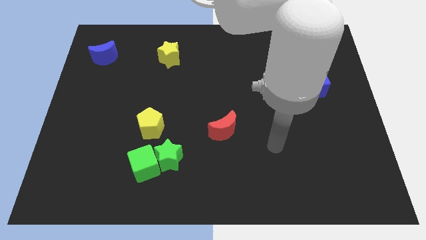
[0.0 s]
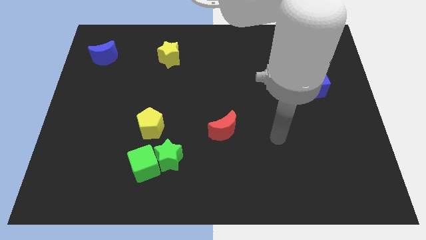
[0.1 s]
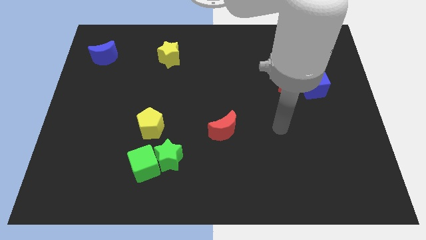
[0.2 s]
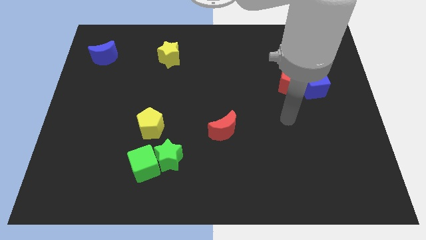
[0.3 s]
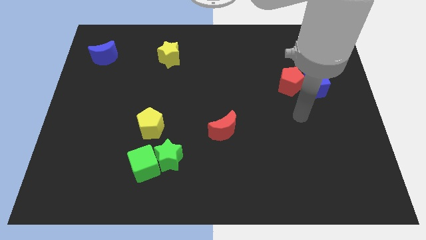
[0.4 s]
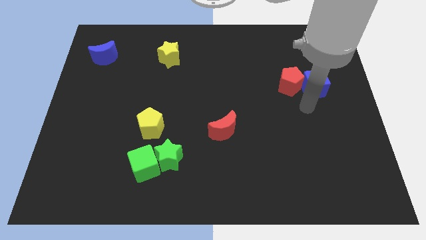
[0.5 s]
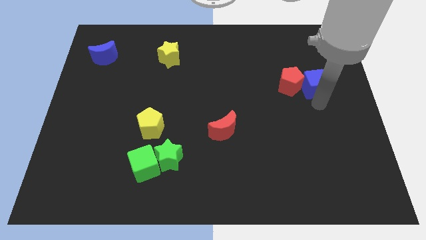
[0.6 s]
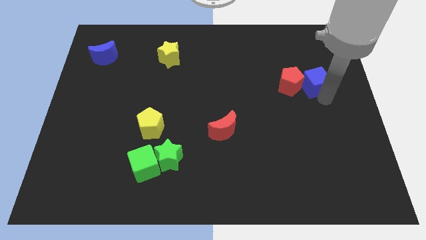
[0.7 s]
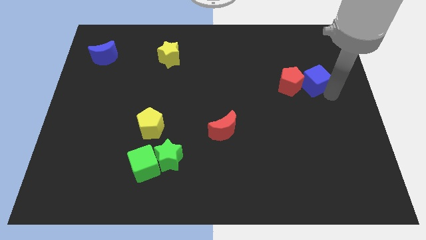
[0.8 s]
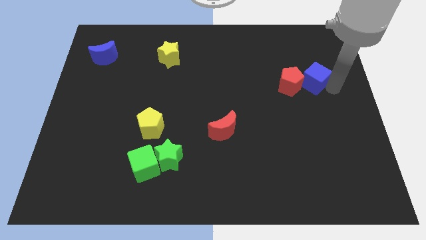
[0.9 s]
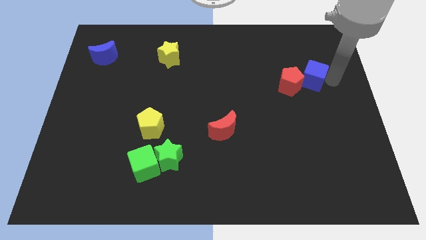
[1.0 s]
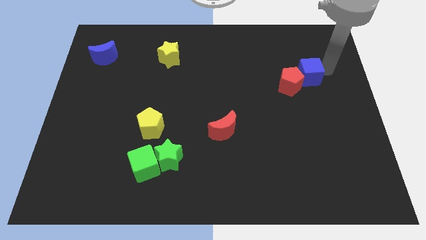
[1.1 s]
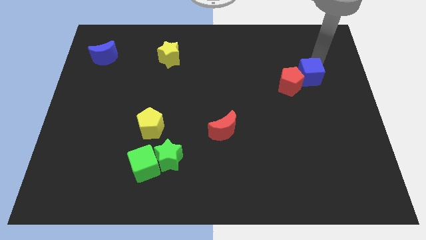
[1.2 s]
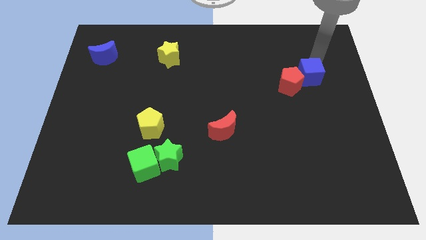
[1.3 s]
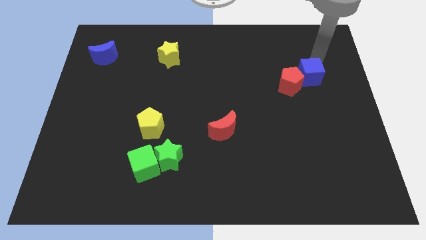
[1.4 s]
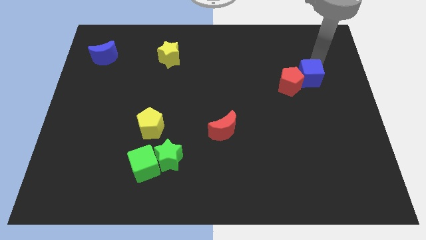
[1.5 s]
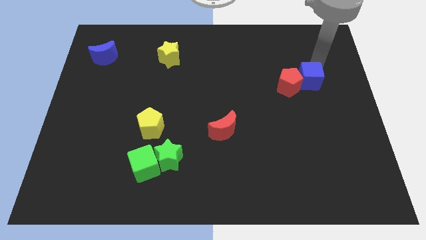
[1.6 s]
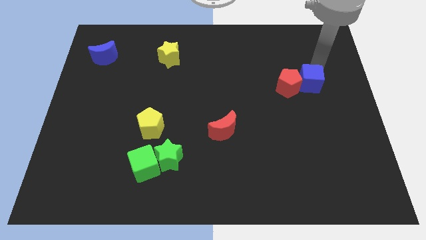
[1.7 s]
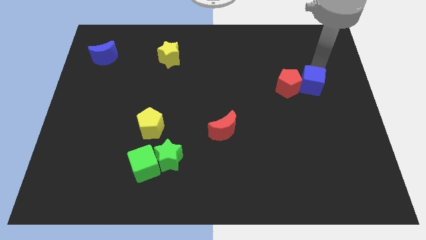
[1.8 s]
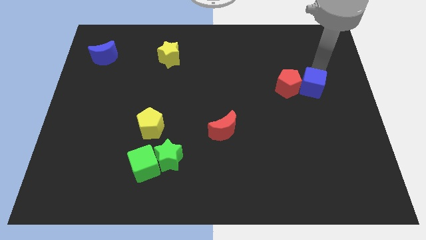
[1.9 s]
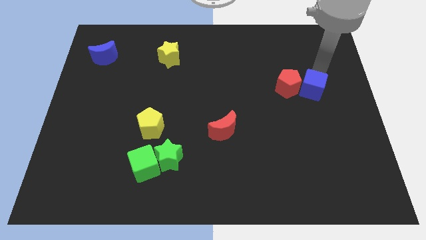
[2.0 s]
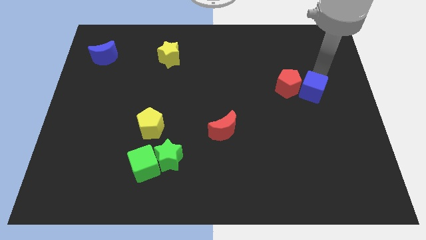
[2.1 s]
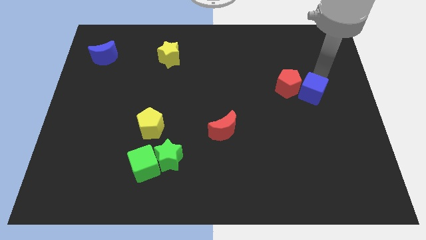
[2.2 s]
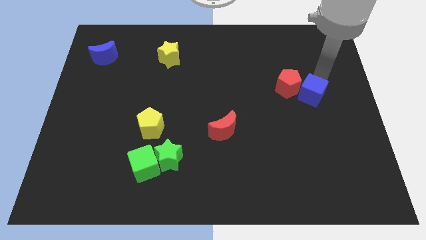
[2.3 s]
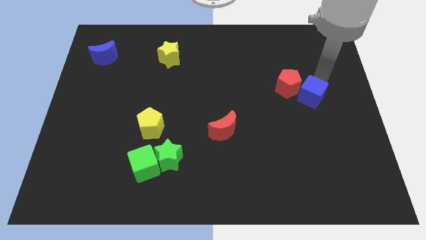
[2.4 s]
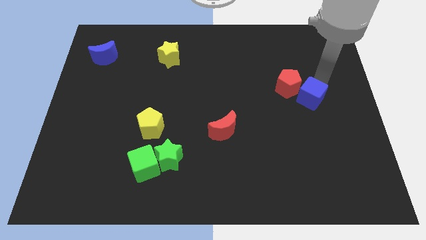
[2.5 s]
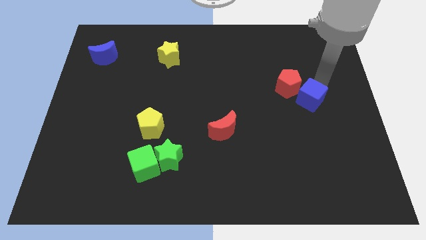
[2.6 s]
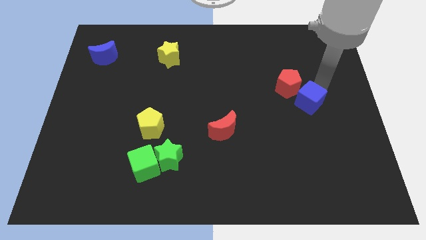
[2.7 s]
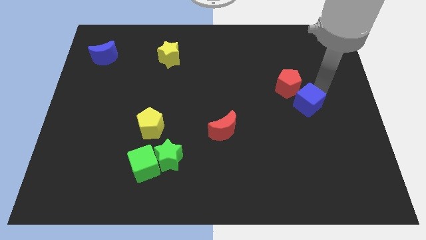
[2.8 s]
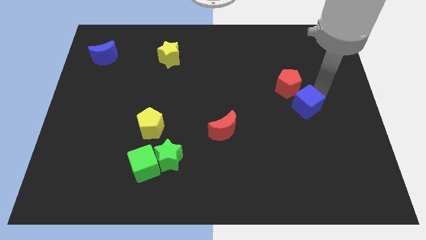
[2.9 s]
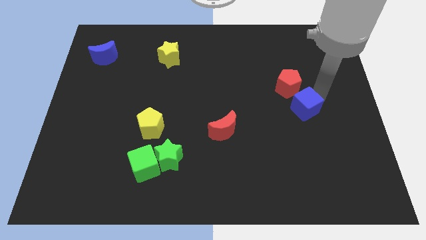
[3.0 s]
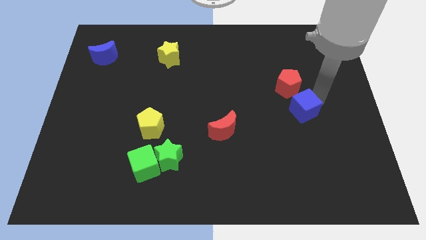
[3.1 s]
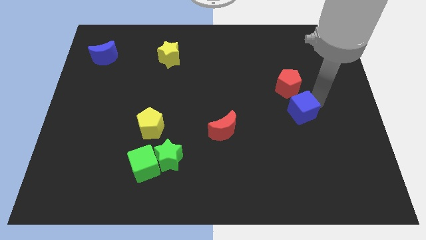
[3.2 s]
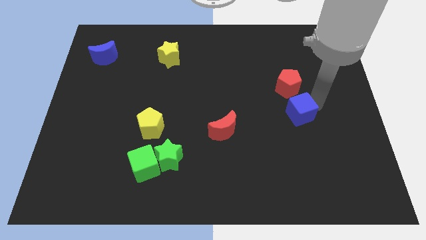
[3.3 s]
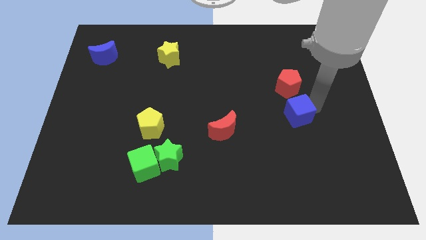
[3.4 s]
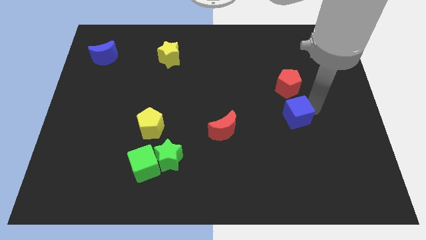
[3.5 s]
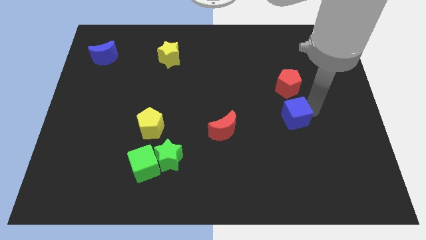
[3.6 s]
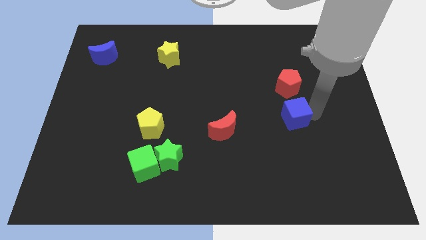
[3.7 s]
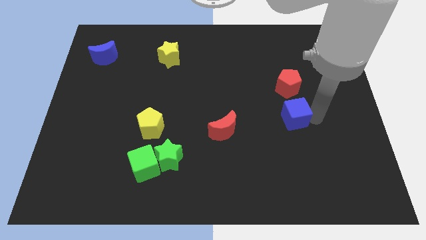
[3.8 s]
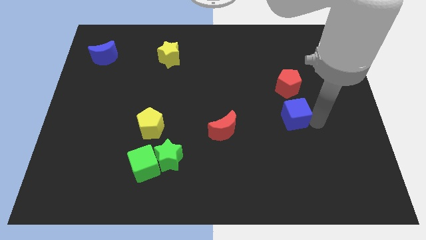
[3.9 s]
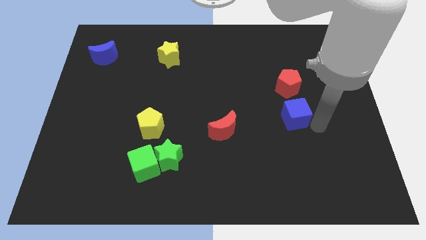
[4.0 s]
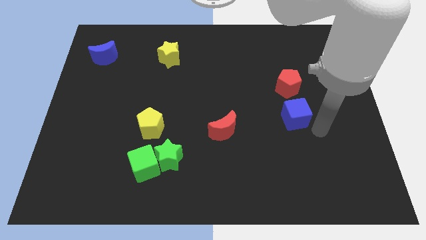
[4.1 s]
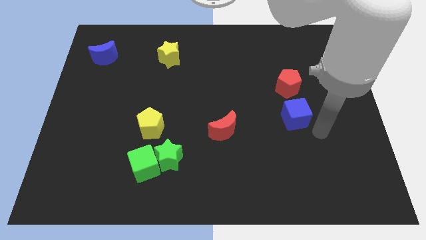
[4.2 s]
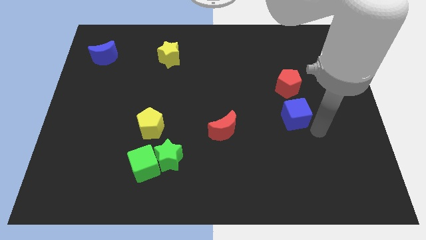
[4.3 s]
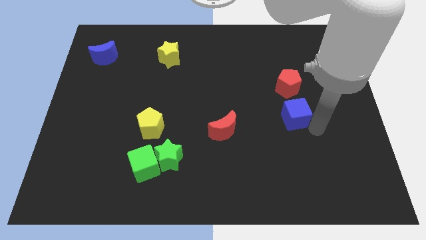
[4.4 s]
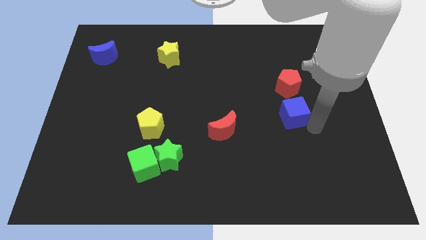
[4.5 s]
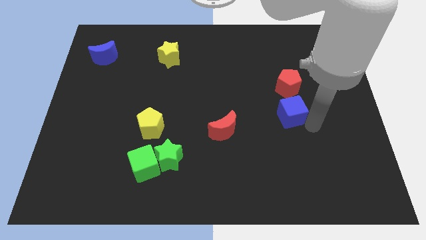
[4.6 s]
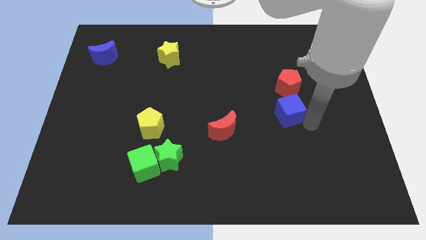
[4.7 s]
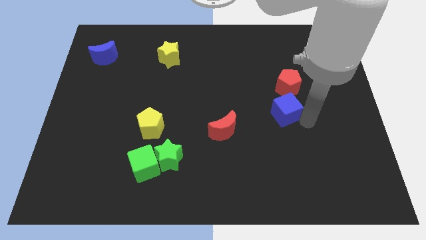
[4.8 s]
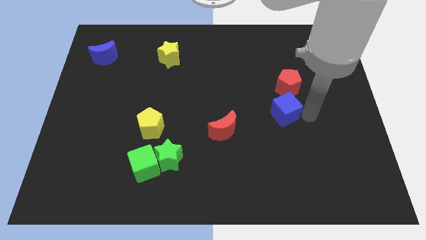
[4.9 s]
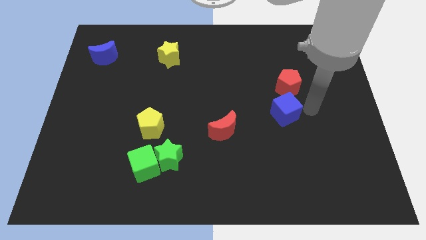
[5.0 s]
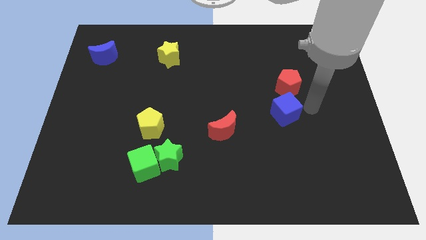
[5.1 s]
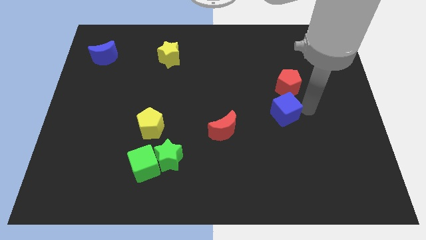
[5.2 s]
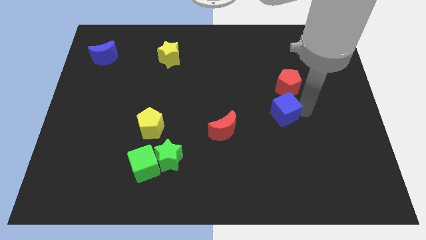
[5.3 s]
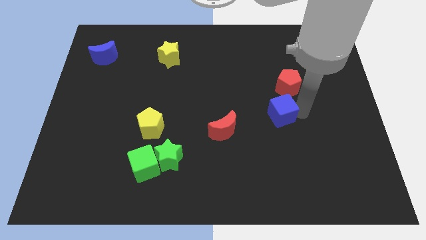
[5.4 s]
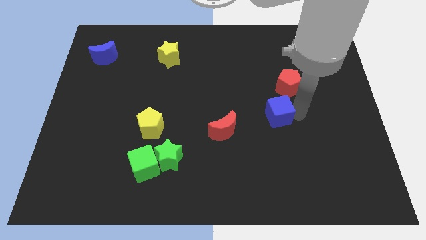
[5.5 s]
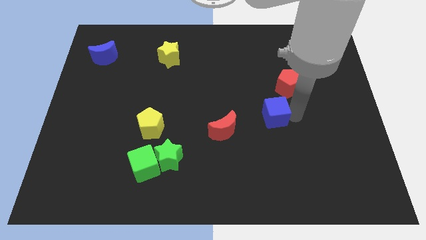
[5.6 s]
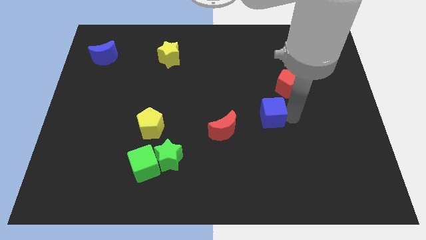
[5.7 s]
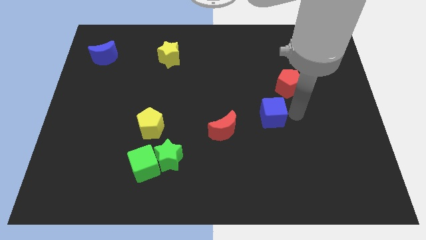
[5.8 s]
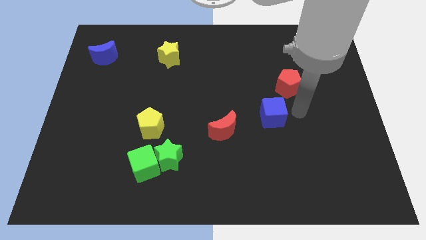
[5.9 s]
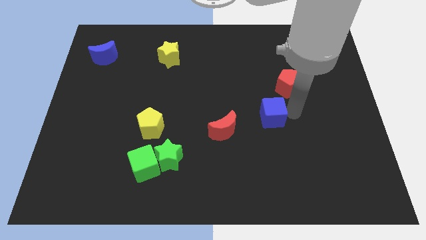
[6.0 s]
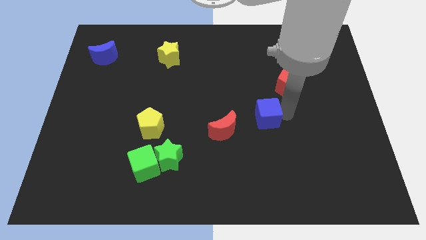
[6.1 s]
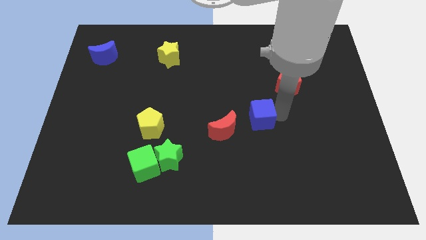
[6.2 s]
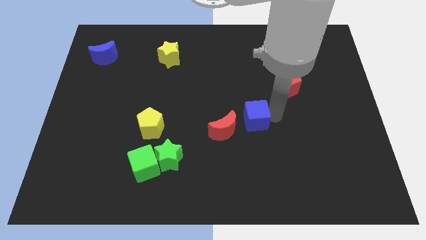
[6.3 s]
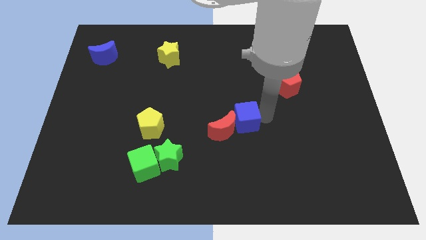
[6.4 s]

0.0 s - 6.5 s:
push the blue cube next to the red moon

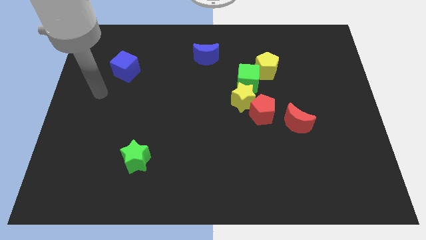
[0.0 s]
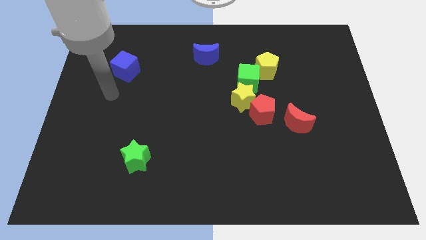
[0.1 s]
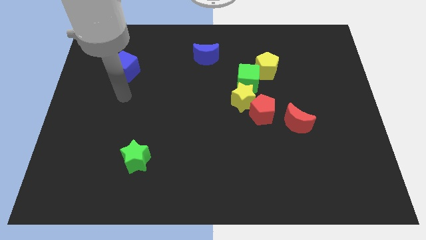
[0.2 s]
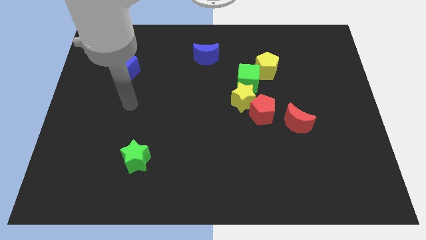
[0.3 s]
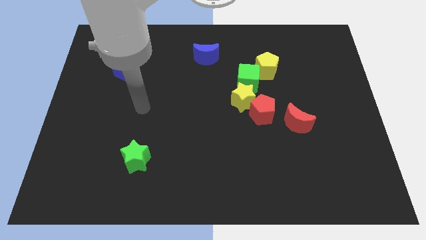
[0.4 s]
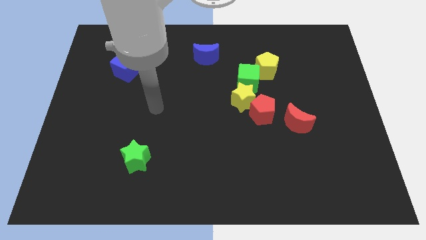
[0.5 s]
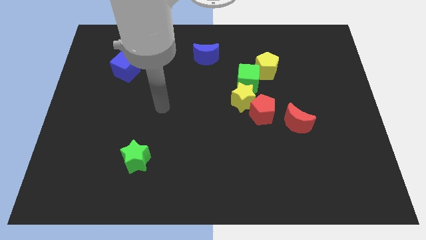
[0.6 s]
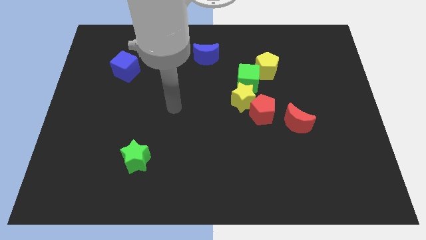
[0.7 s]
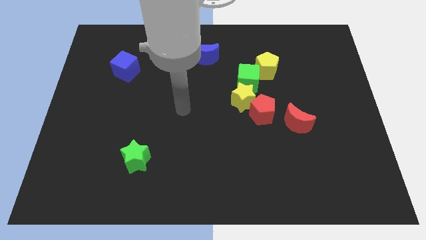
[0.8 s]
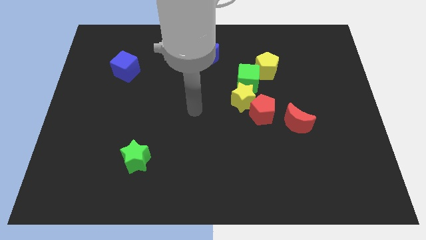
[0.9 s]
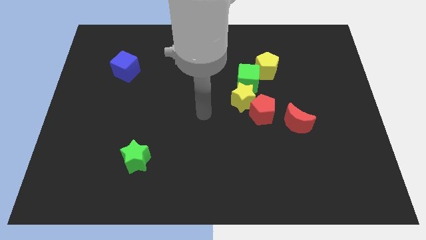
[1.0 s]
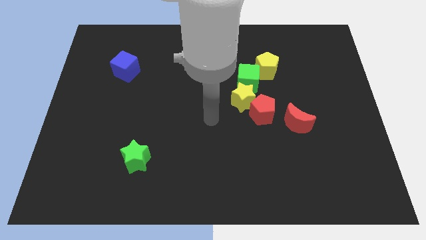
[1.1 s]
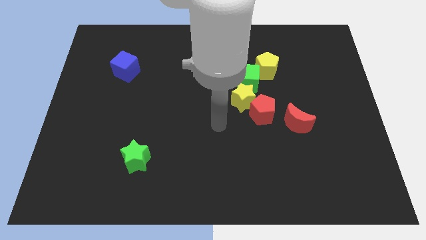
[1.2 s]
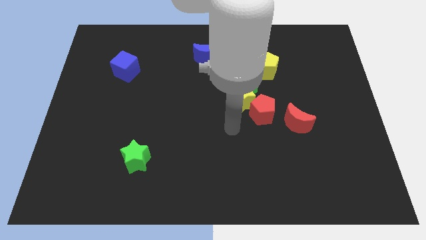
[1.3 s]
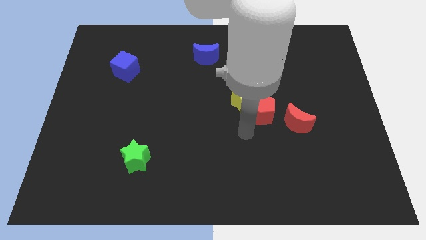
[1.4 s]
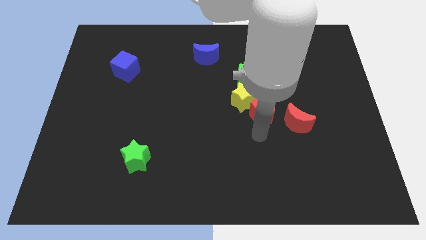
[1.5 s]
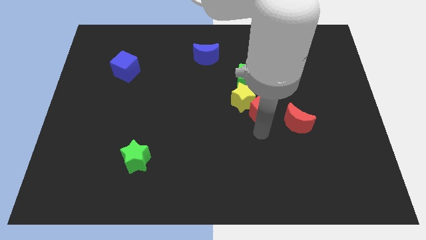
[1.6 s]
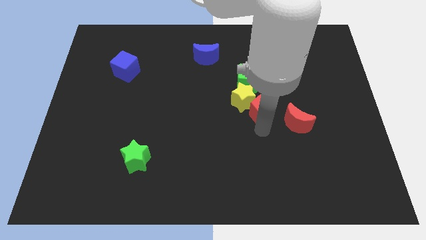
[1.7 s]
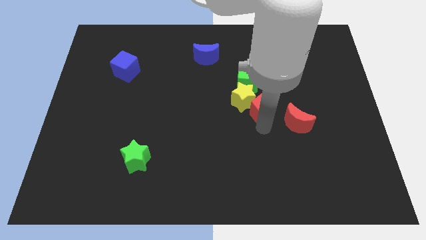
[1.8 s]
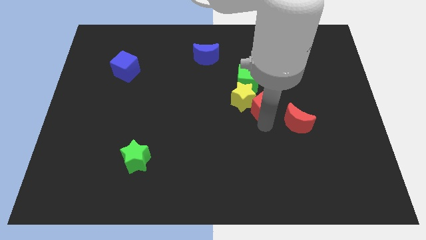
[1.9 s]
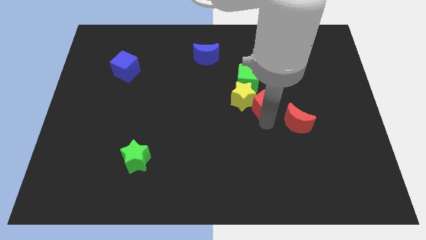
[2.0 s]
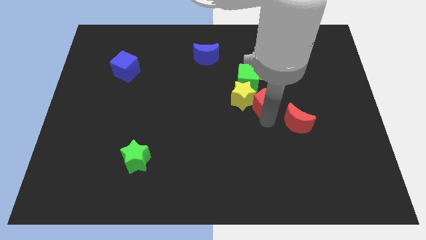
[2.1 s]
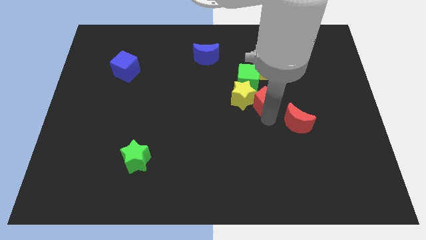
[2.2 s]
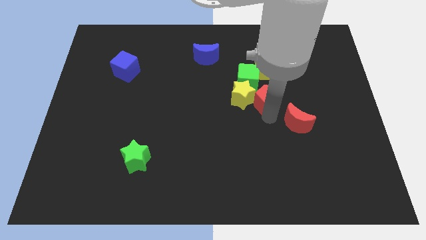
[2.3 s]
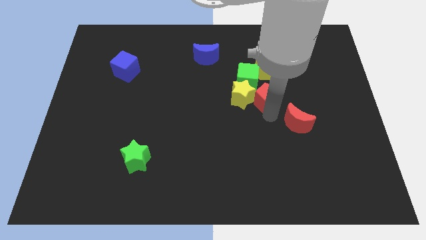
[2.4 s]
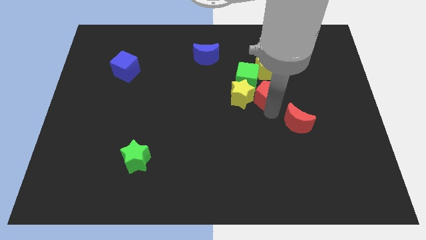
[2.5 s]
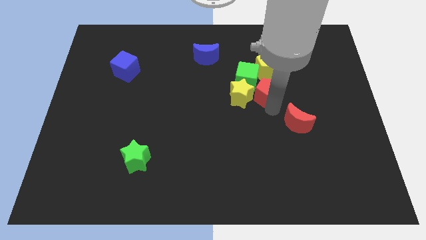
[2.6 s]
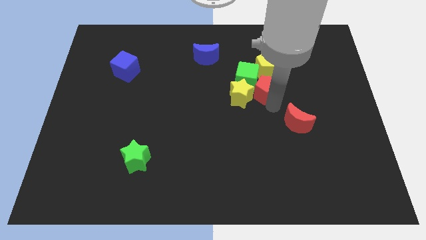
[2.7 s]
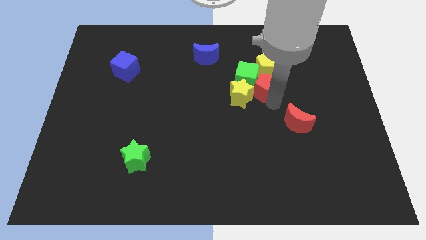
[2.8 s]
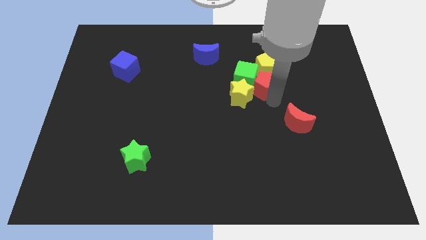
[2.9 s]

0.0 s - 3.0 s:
move the red pentagon towards the yellow pentagon
